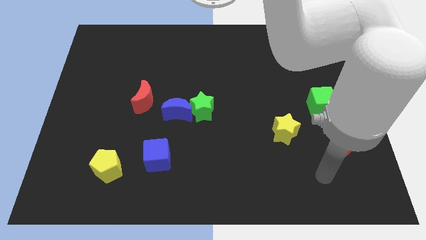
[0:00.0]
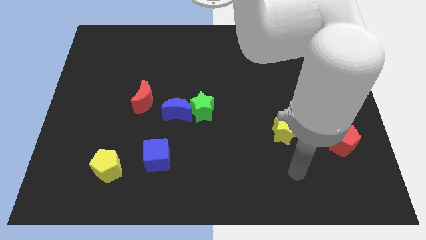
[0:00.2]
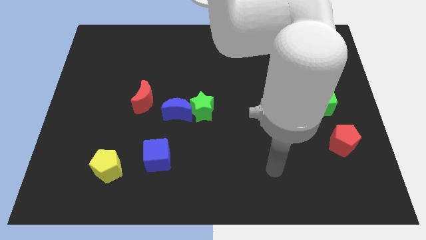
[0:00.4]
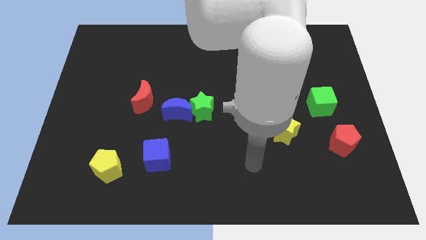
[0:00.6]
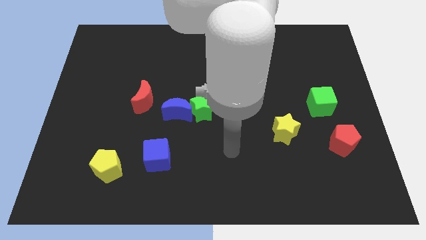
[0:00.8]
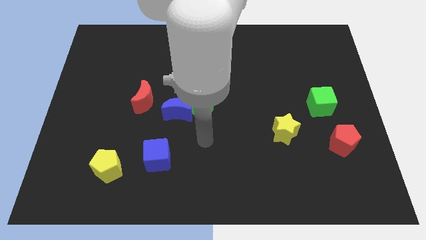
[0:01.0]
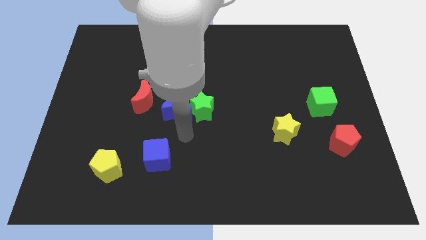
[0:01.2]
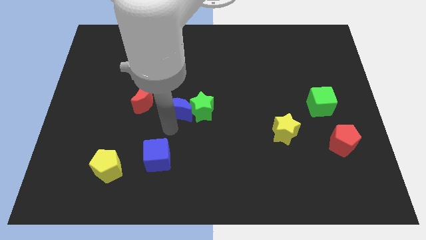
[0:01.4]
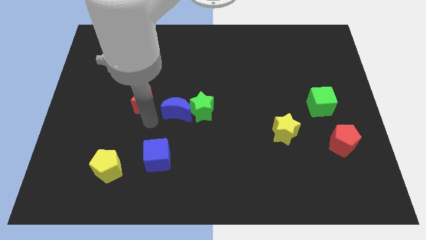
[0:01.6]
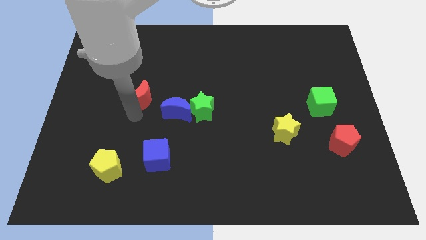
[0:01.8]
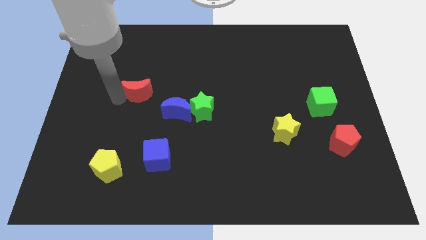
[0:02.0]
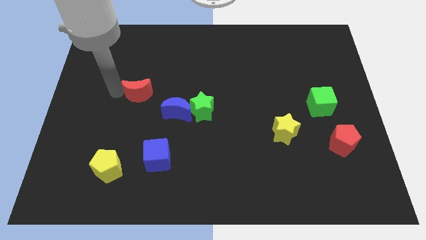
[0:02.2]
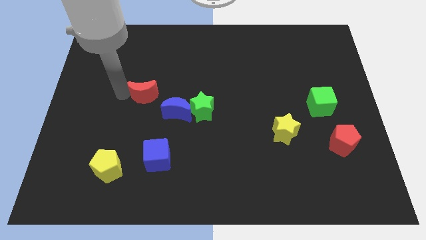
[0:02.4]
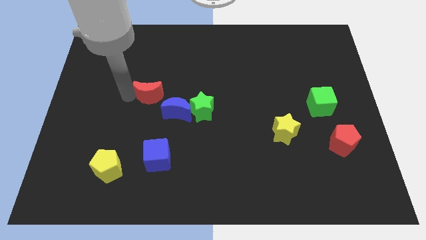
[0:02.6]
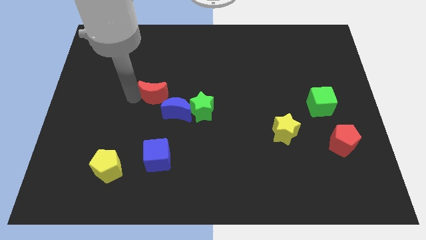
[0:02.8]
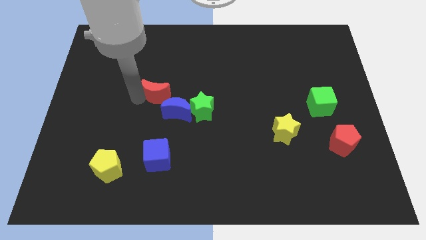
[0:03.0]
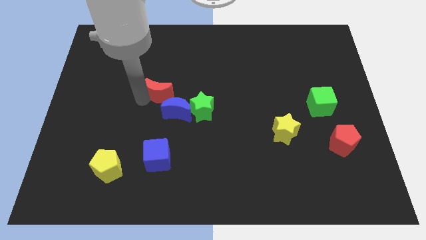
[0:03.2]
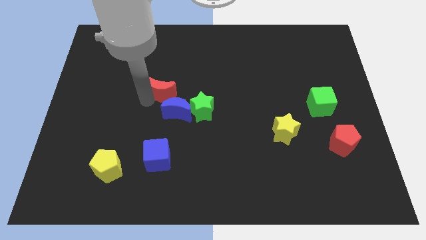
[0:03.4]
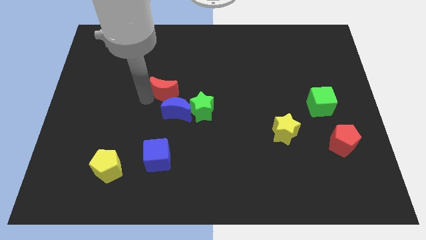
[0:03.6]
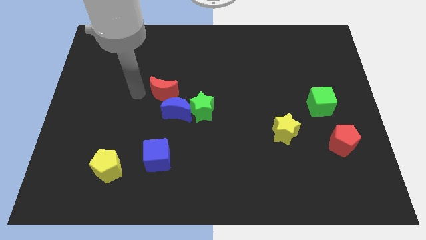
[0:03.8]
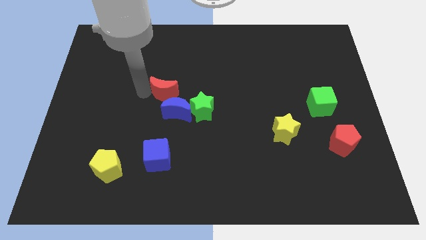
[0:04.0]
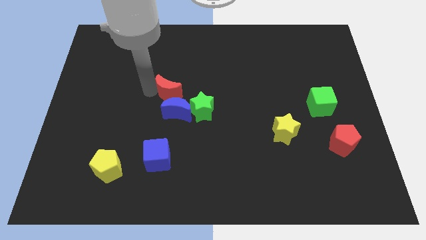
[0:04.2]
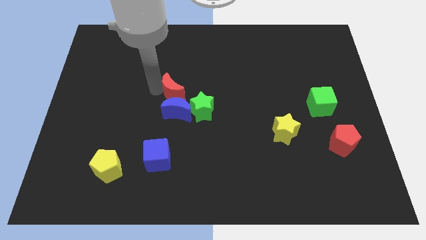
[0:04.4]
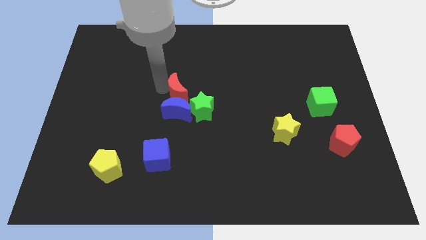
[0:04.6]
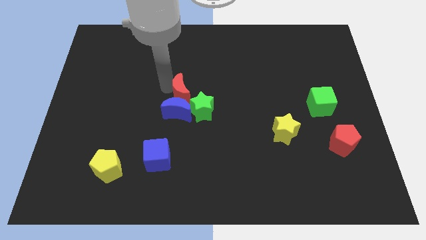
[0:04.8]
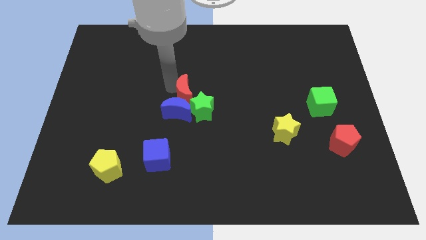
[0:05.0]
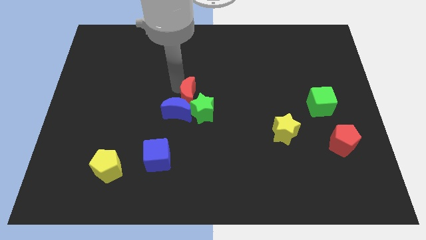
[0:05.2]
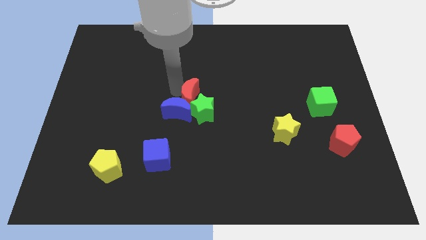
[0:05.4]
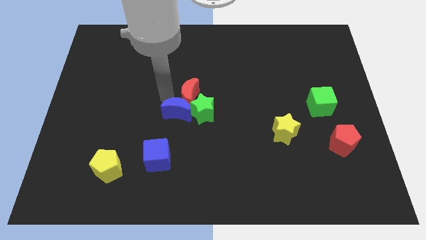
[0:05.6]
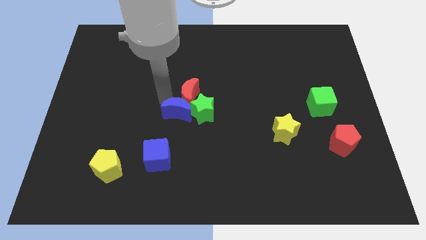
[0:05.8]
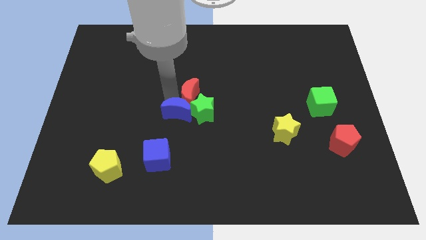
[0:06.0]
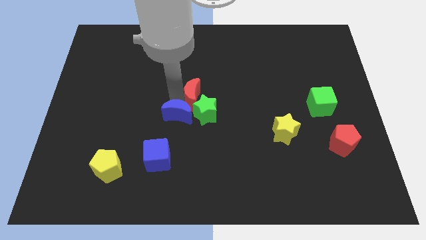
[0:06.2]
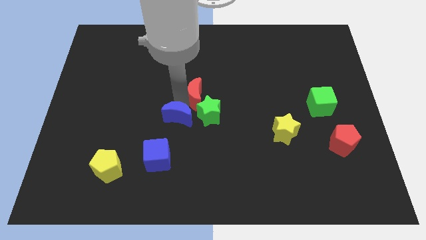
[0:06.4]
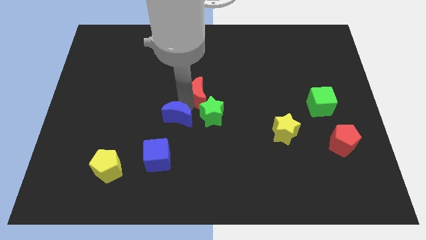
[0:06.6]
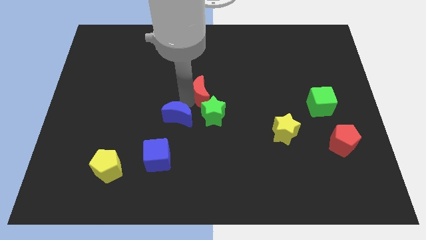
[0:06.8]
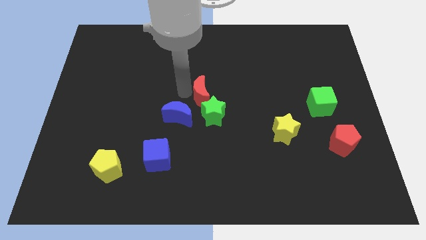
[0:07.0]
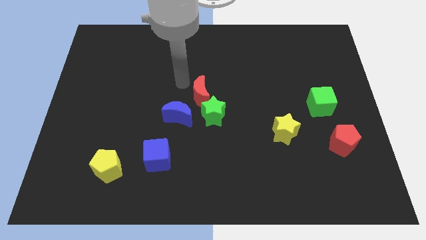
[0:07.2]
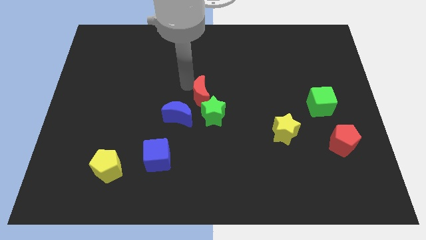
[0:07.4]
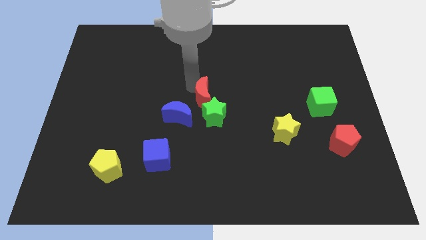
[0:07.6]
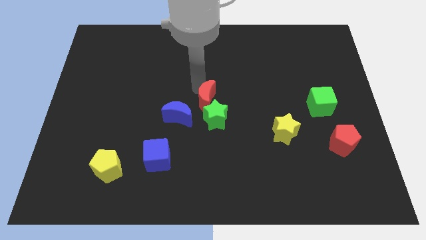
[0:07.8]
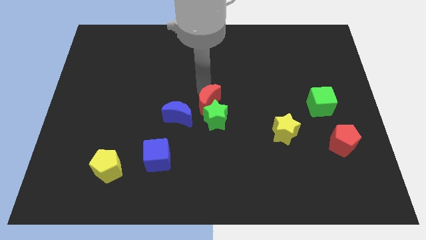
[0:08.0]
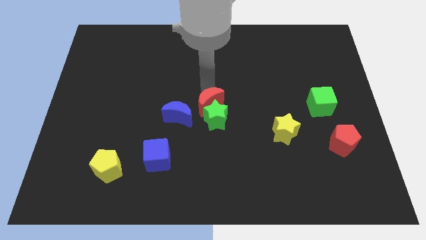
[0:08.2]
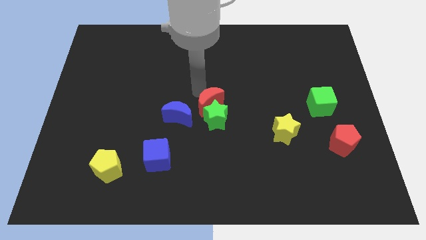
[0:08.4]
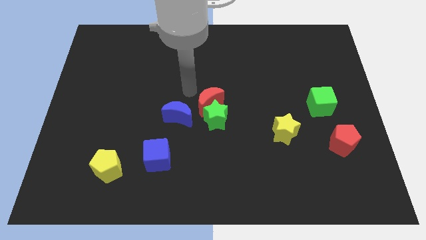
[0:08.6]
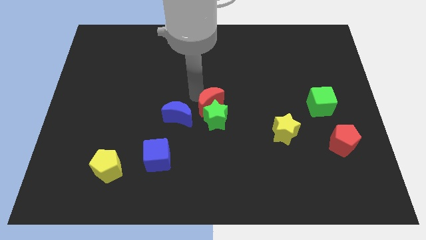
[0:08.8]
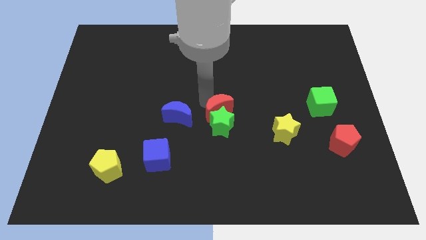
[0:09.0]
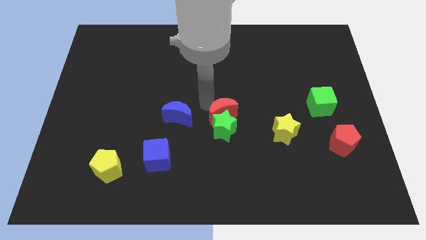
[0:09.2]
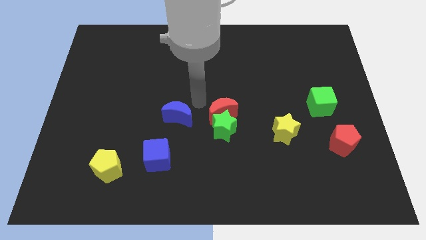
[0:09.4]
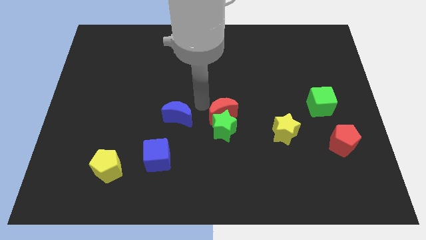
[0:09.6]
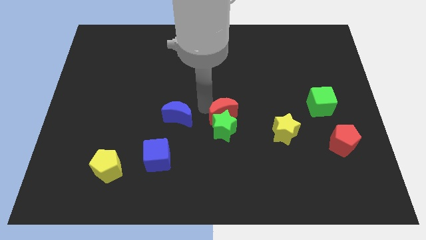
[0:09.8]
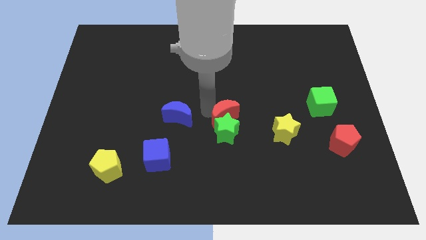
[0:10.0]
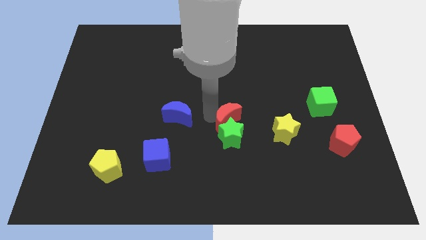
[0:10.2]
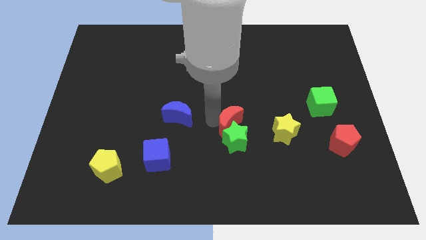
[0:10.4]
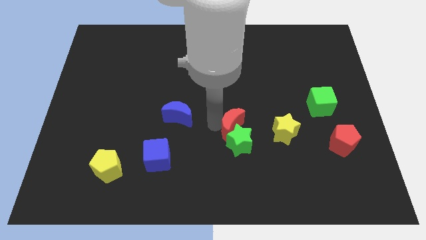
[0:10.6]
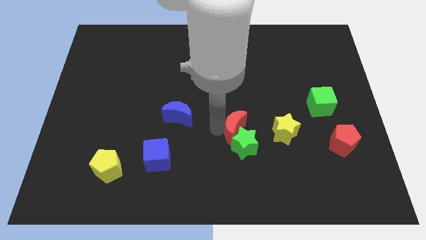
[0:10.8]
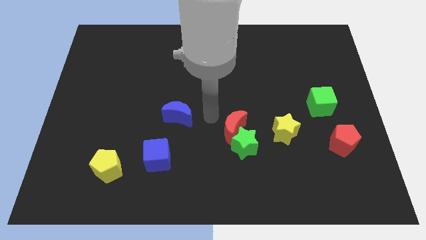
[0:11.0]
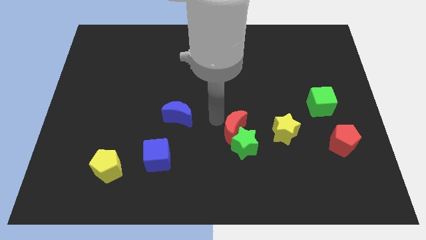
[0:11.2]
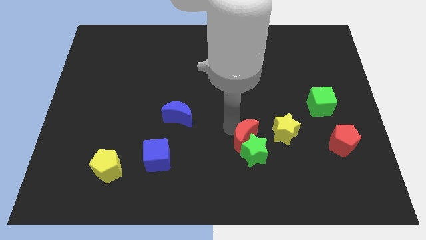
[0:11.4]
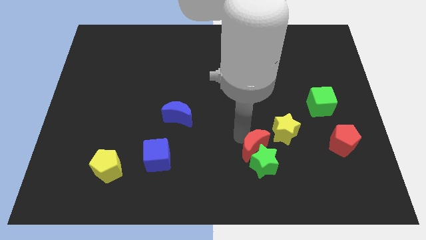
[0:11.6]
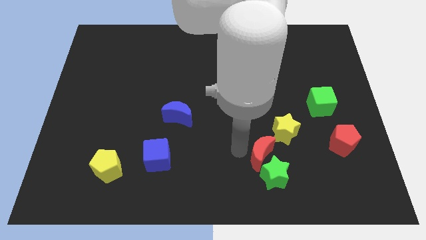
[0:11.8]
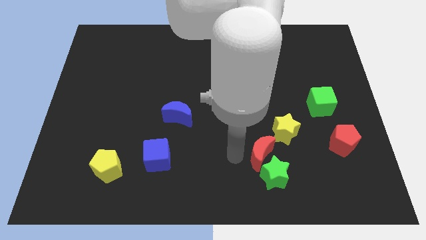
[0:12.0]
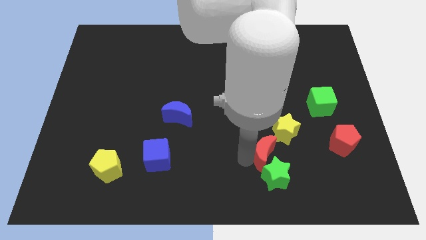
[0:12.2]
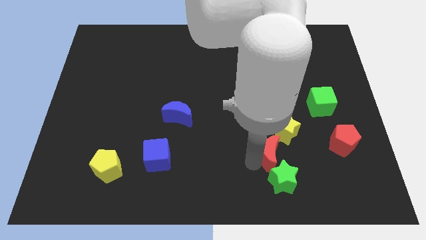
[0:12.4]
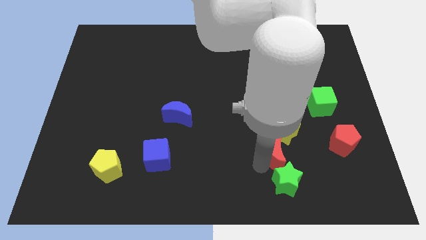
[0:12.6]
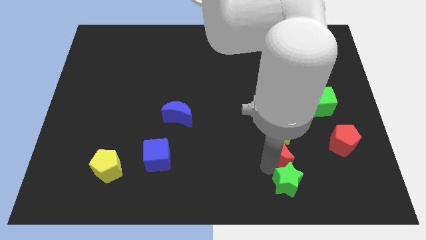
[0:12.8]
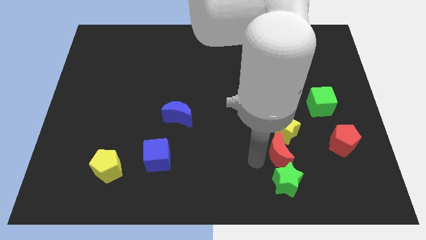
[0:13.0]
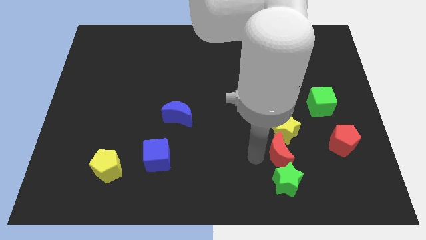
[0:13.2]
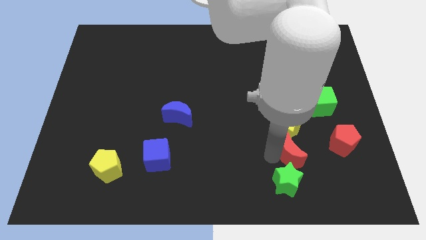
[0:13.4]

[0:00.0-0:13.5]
move the red moon diagonally down and to the right of the yellow star
